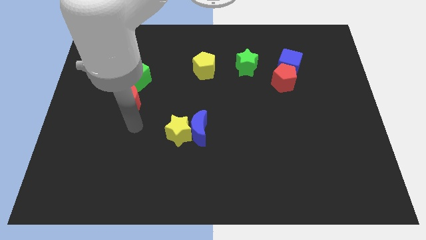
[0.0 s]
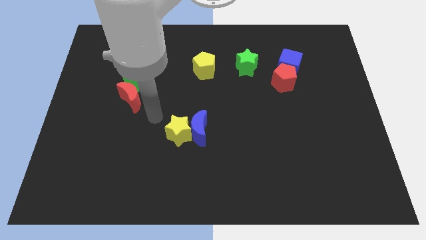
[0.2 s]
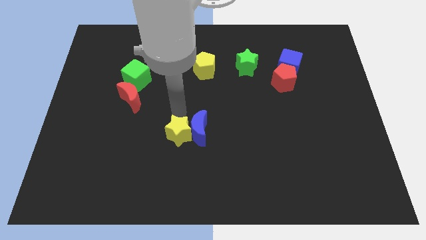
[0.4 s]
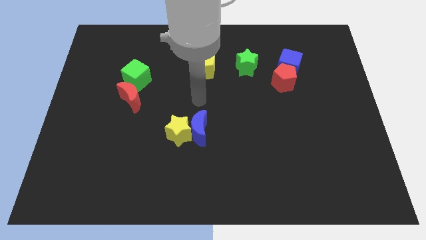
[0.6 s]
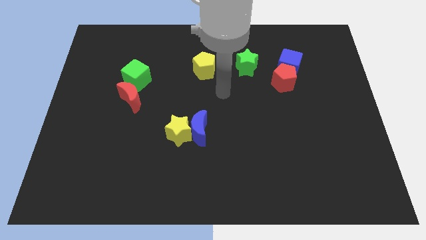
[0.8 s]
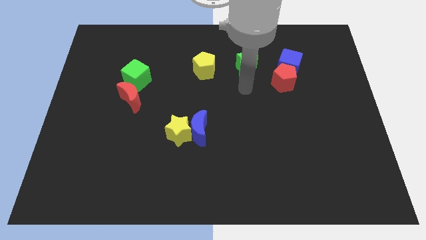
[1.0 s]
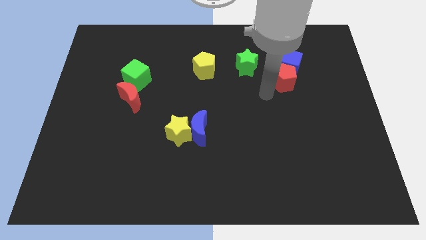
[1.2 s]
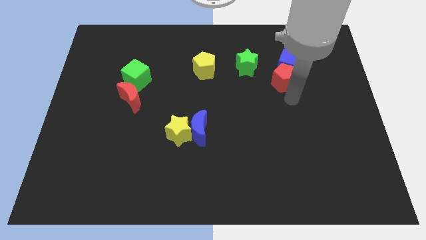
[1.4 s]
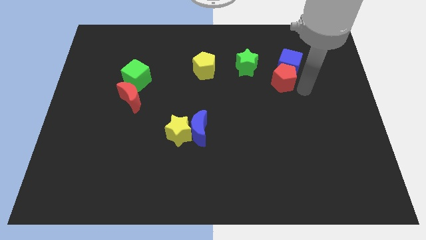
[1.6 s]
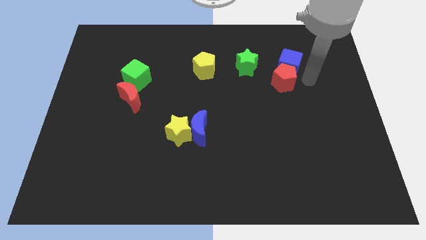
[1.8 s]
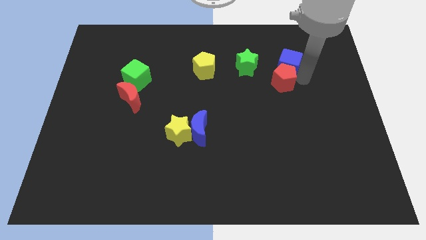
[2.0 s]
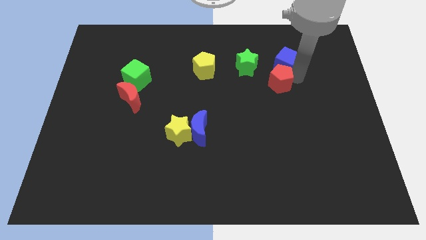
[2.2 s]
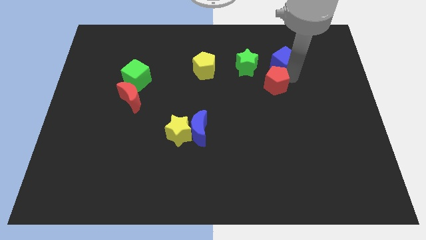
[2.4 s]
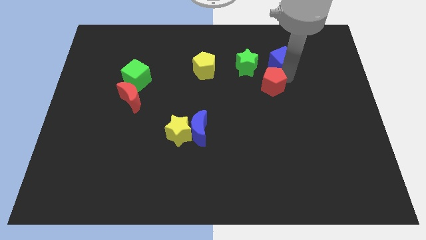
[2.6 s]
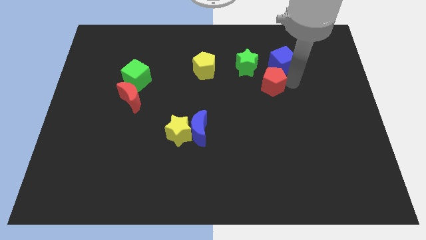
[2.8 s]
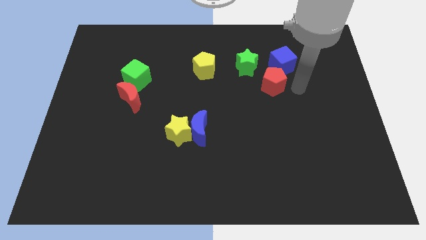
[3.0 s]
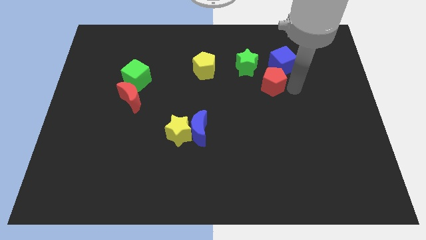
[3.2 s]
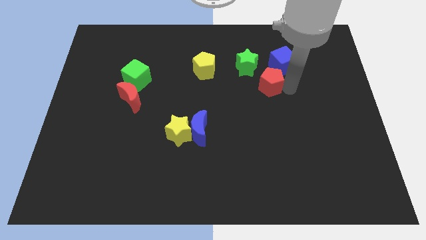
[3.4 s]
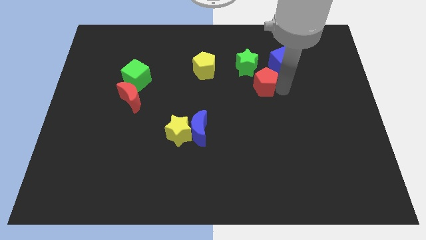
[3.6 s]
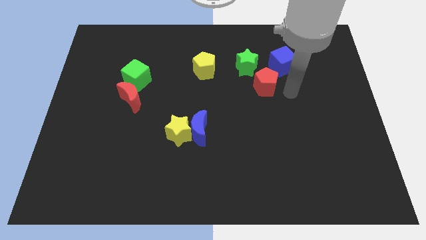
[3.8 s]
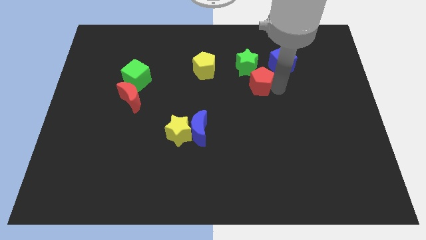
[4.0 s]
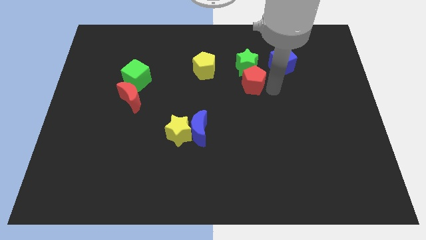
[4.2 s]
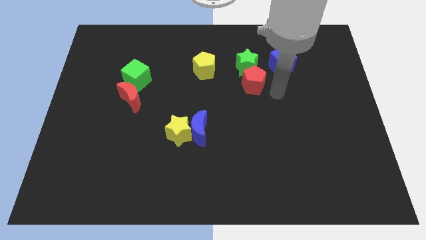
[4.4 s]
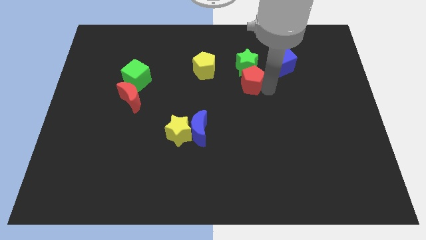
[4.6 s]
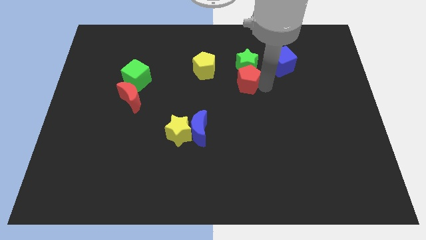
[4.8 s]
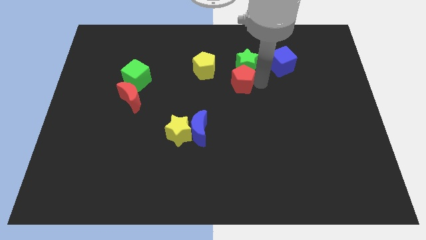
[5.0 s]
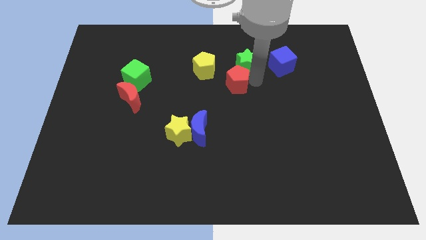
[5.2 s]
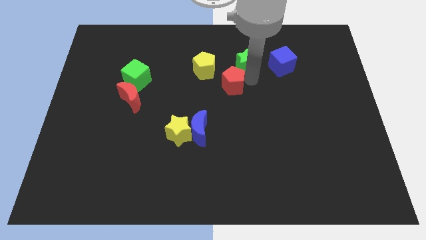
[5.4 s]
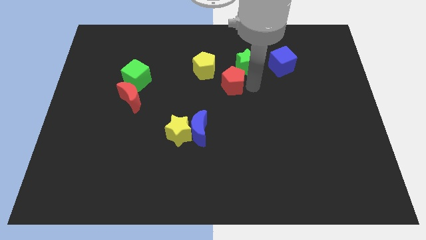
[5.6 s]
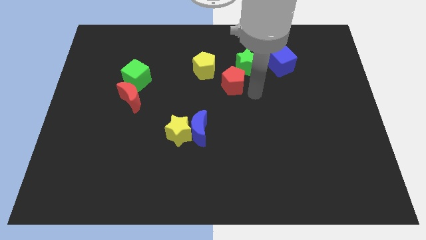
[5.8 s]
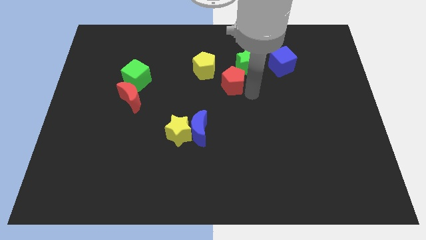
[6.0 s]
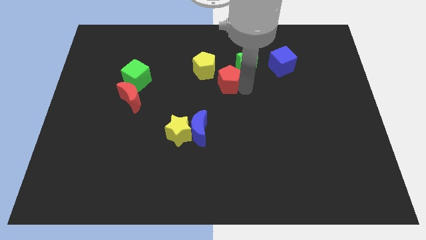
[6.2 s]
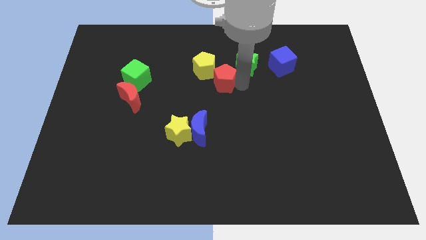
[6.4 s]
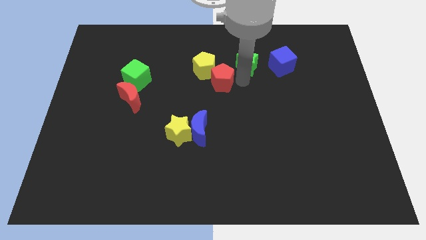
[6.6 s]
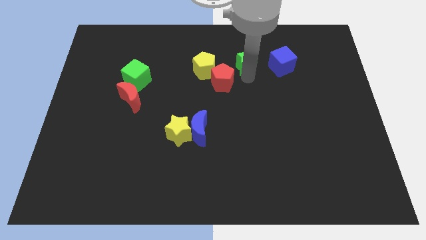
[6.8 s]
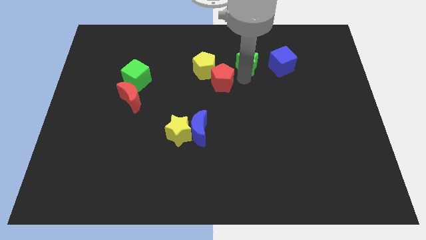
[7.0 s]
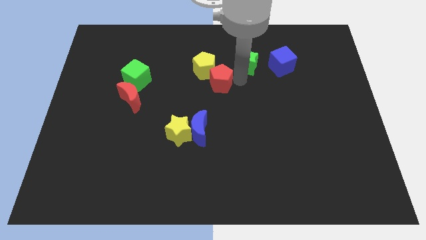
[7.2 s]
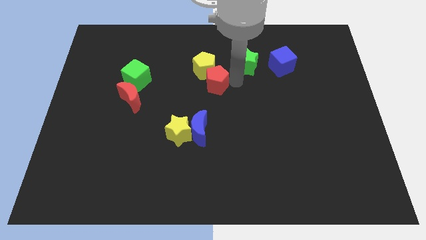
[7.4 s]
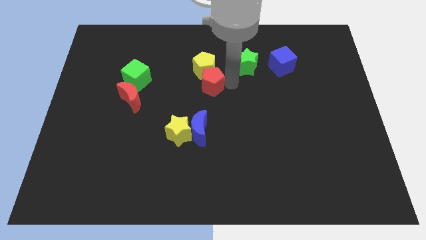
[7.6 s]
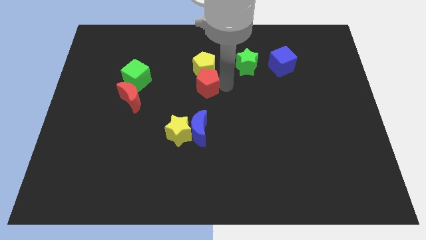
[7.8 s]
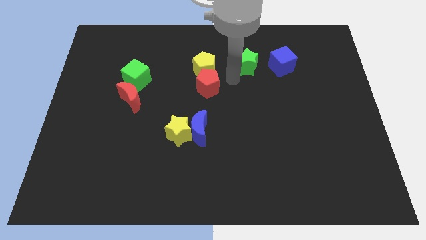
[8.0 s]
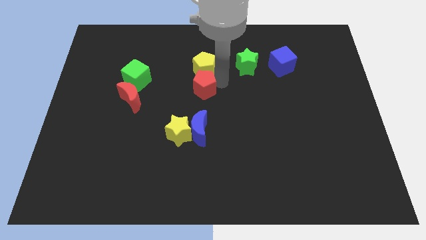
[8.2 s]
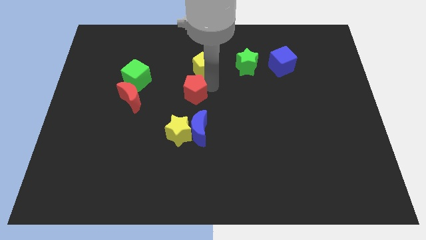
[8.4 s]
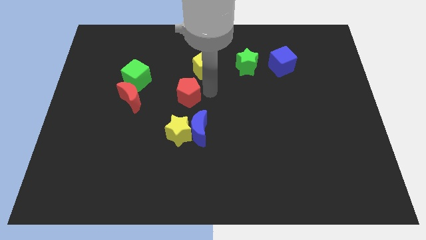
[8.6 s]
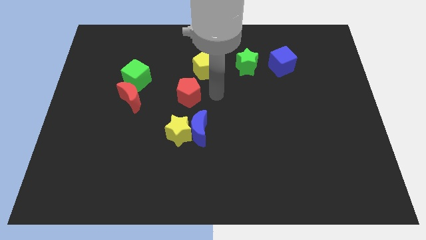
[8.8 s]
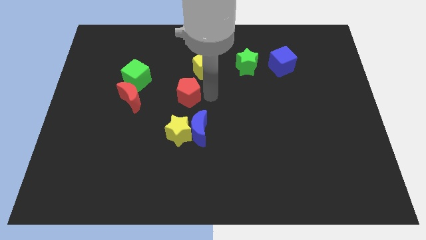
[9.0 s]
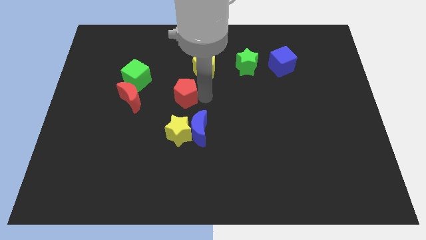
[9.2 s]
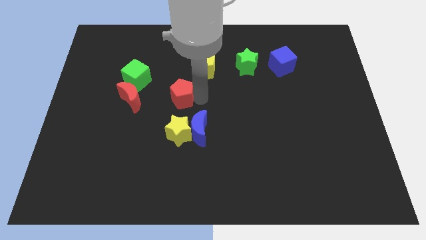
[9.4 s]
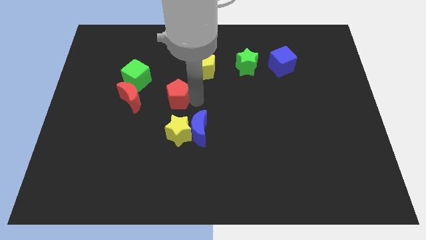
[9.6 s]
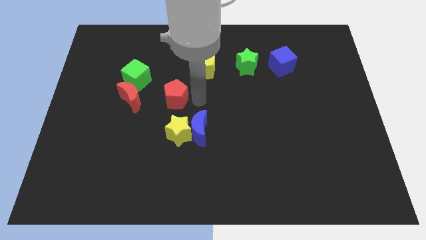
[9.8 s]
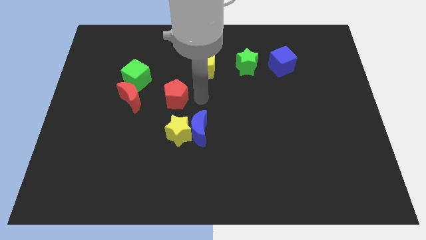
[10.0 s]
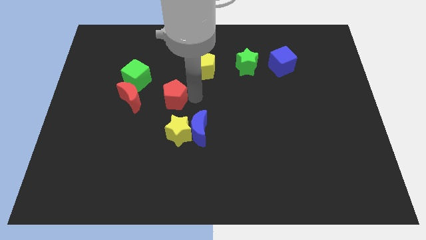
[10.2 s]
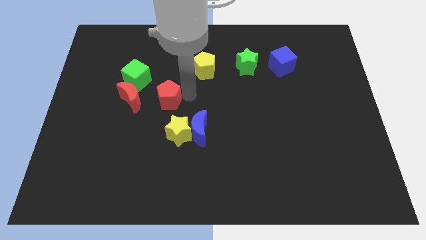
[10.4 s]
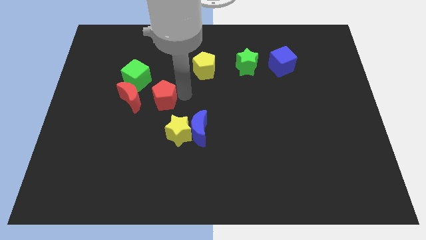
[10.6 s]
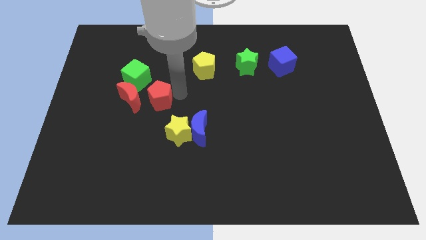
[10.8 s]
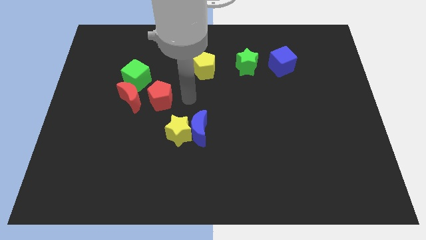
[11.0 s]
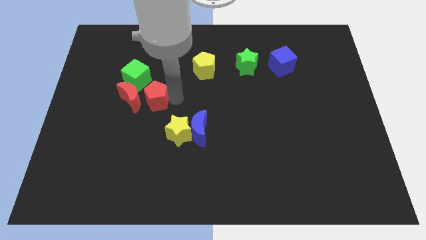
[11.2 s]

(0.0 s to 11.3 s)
push the red pentagon towards the red moon

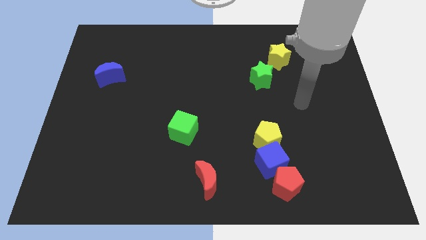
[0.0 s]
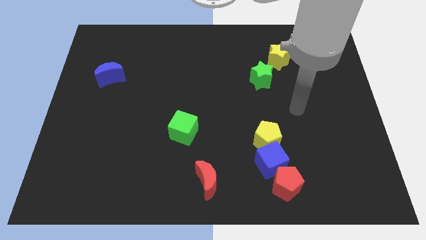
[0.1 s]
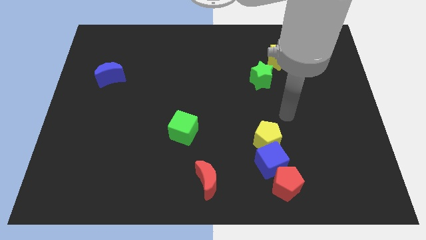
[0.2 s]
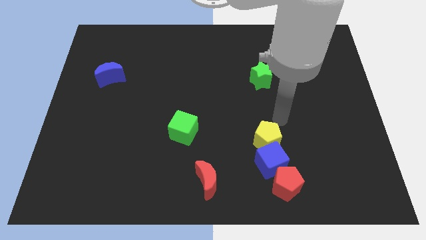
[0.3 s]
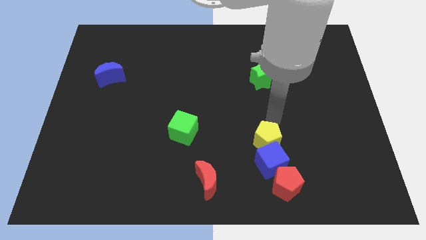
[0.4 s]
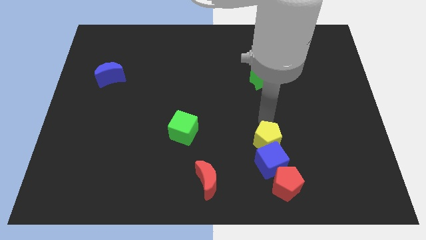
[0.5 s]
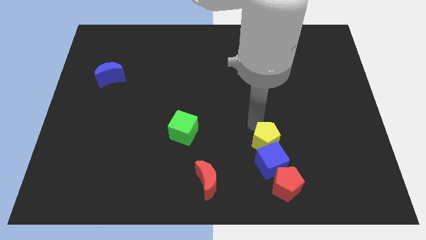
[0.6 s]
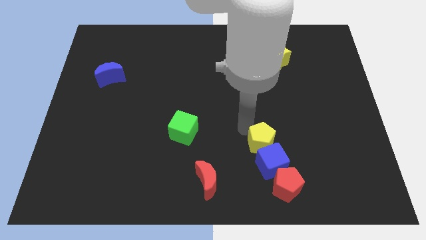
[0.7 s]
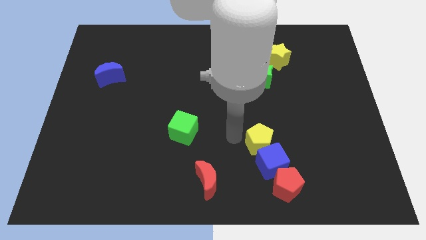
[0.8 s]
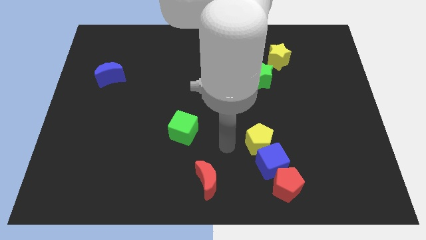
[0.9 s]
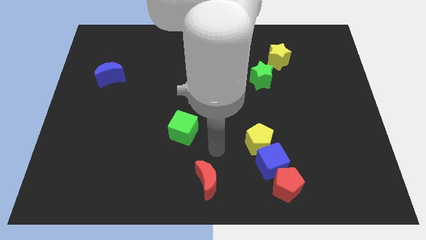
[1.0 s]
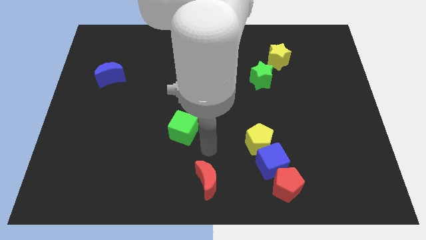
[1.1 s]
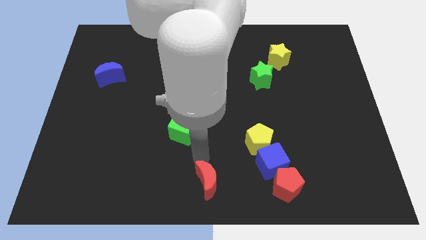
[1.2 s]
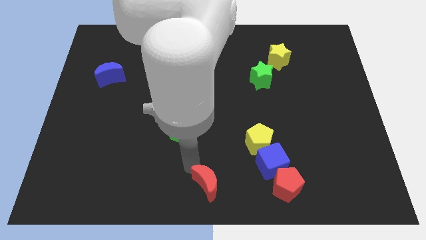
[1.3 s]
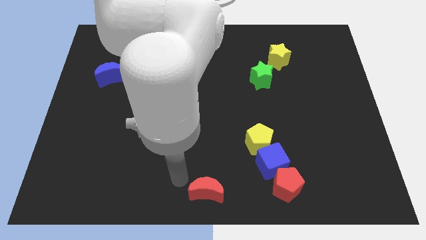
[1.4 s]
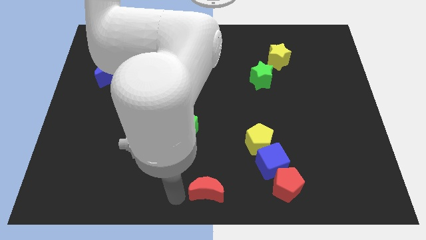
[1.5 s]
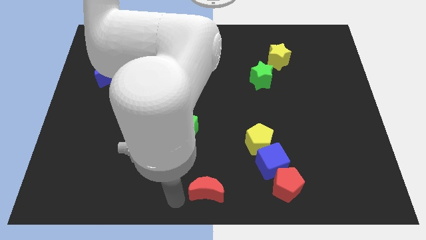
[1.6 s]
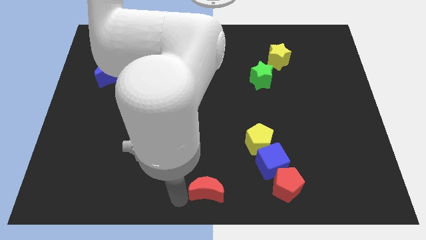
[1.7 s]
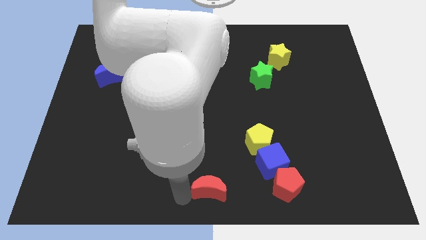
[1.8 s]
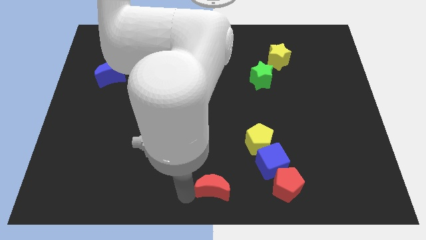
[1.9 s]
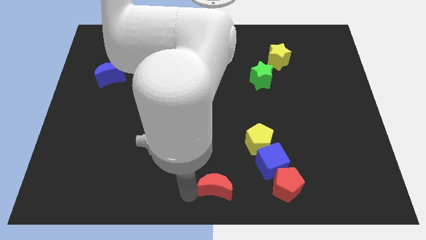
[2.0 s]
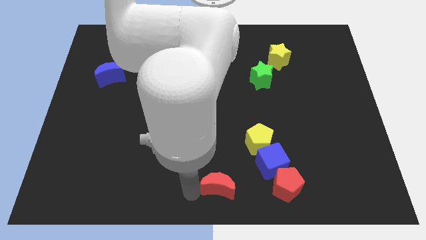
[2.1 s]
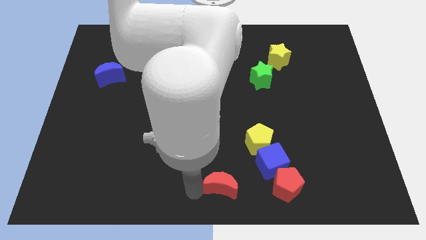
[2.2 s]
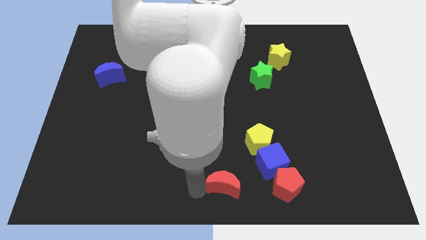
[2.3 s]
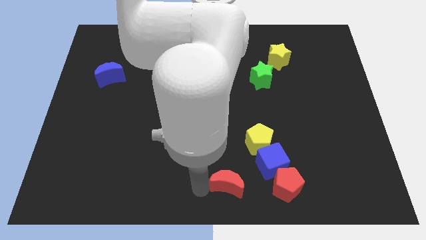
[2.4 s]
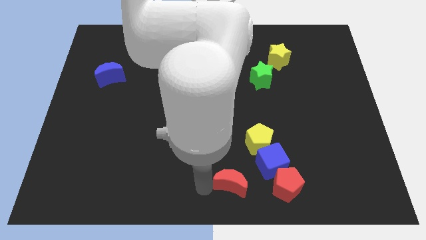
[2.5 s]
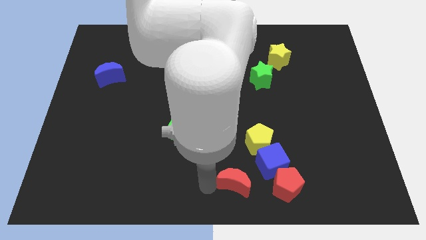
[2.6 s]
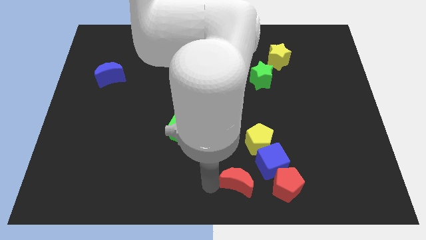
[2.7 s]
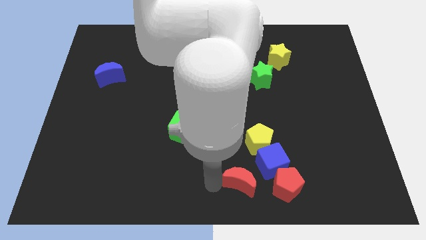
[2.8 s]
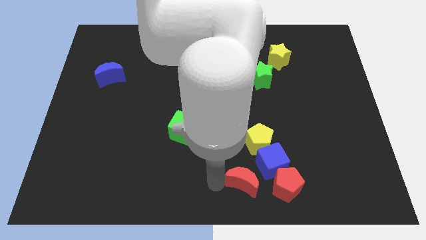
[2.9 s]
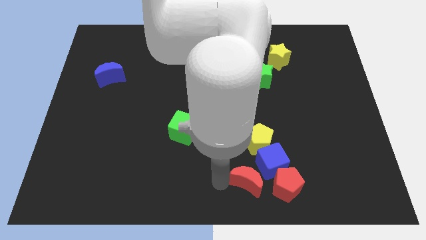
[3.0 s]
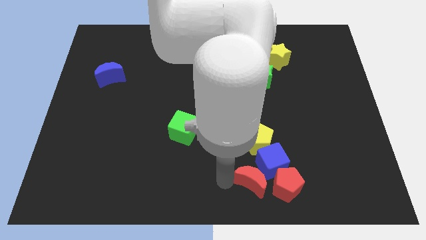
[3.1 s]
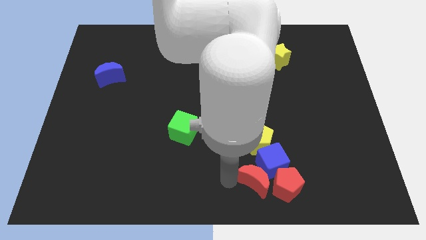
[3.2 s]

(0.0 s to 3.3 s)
slide the red moon towards the red pentagon
